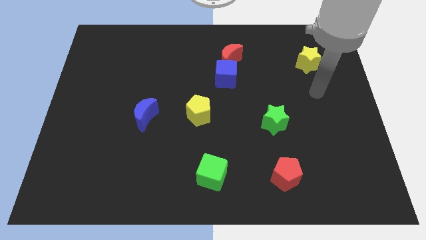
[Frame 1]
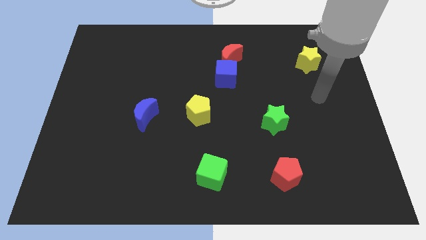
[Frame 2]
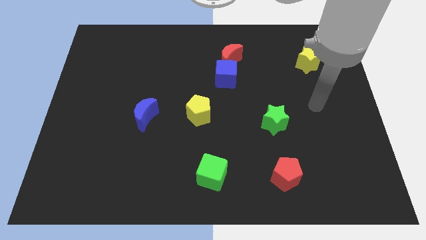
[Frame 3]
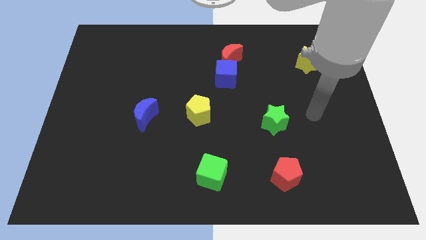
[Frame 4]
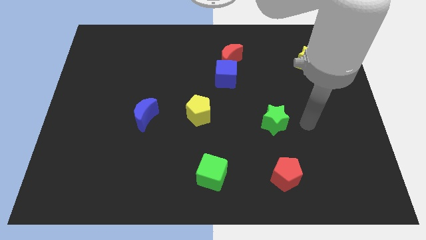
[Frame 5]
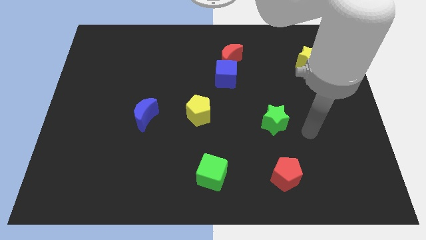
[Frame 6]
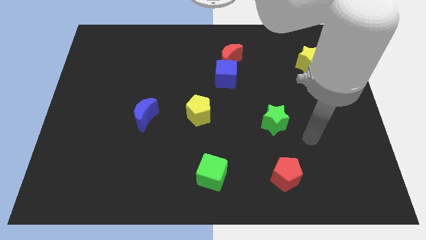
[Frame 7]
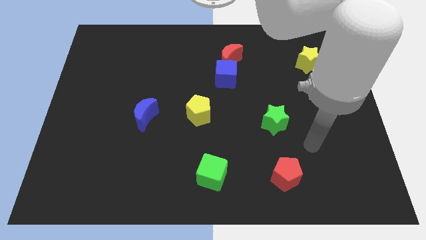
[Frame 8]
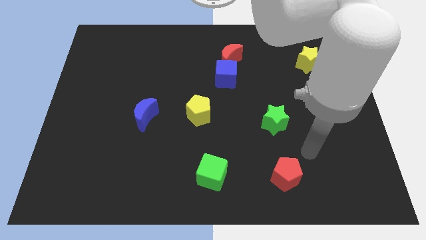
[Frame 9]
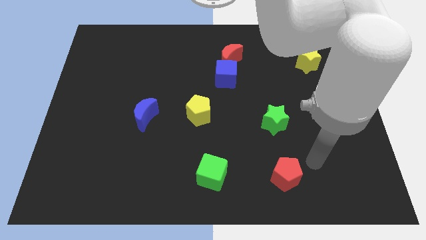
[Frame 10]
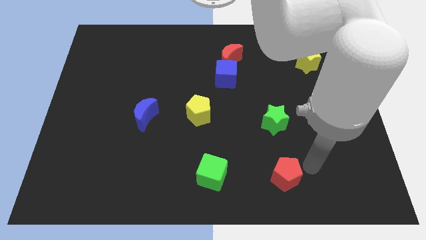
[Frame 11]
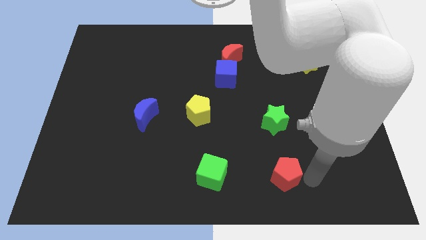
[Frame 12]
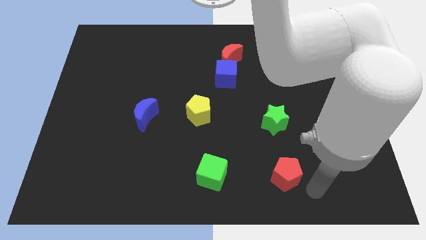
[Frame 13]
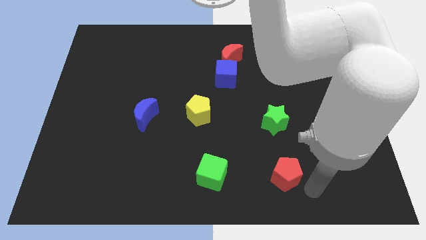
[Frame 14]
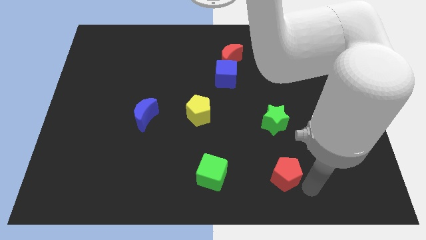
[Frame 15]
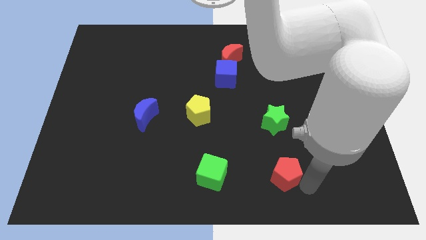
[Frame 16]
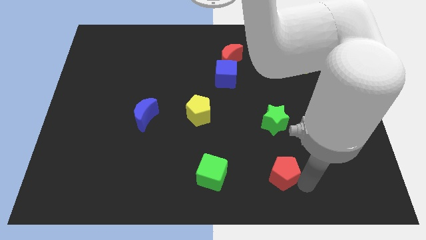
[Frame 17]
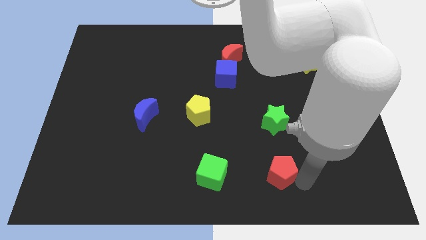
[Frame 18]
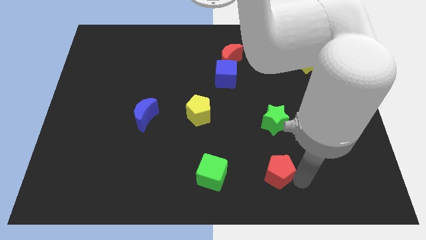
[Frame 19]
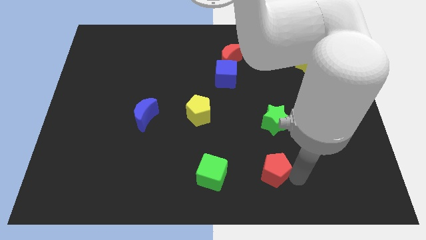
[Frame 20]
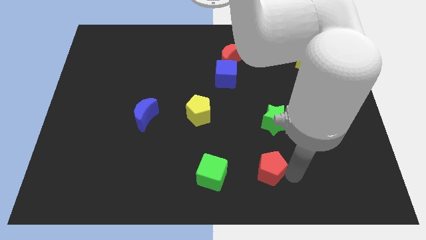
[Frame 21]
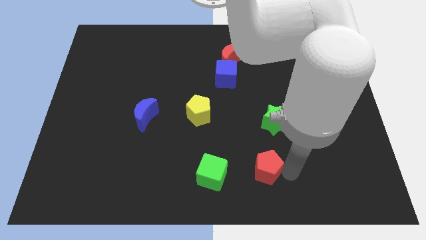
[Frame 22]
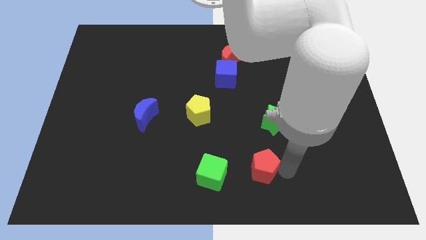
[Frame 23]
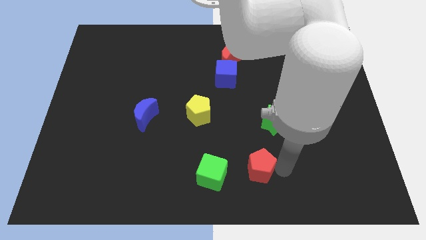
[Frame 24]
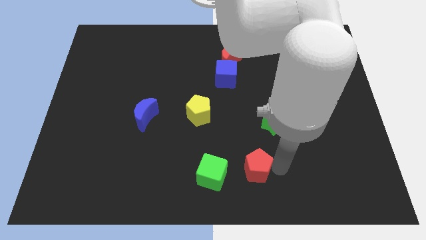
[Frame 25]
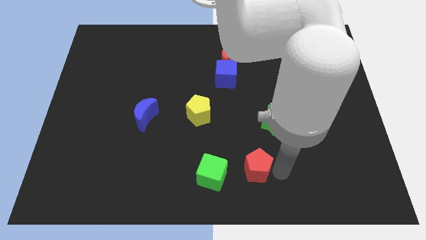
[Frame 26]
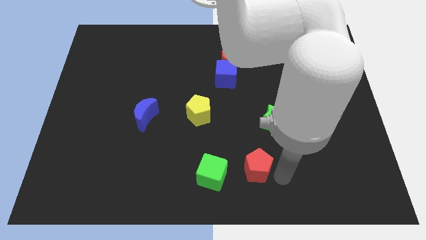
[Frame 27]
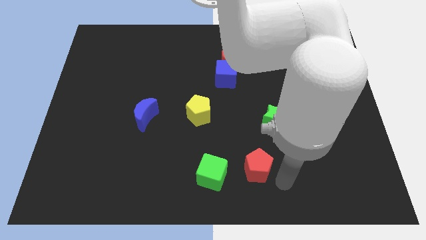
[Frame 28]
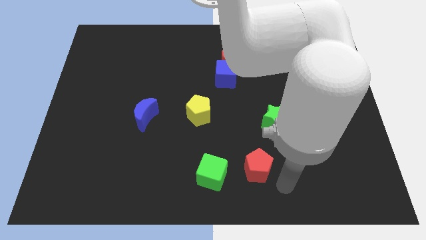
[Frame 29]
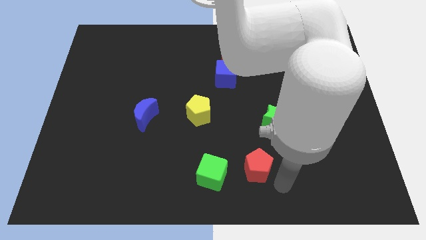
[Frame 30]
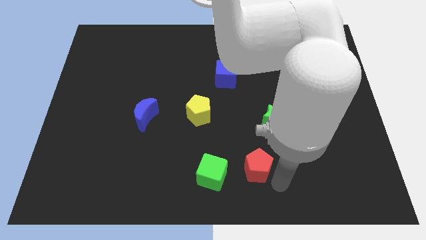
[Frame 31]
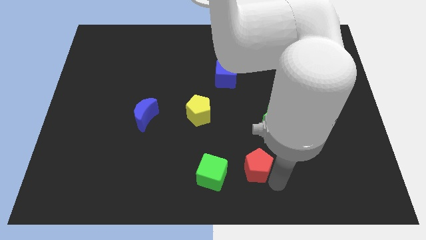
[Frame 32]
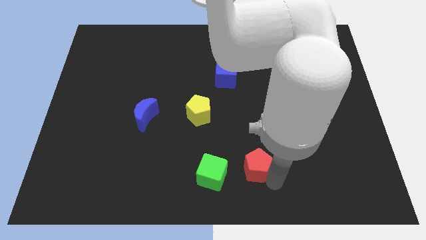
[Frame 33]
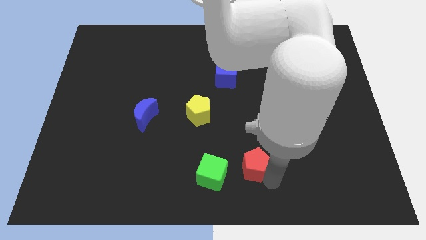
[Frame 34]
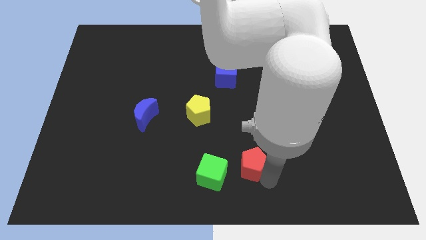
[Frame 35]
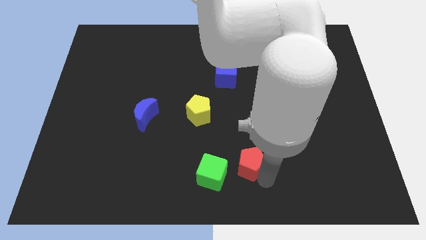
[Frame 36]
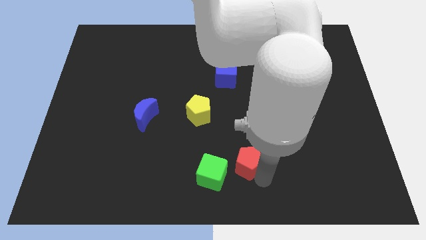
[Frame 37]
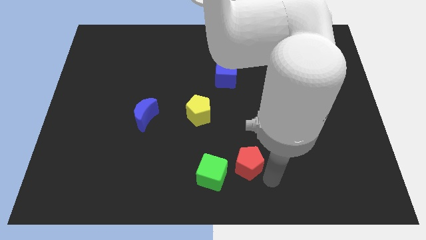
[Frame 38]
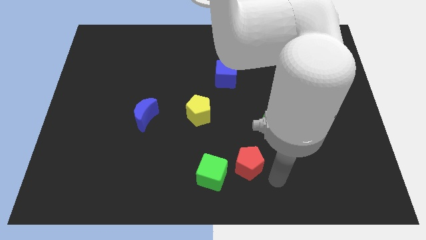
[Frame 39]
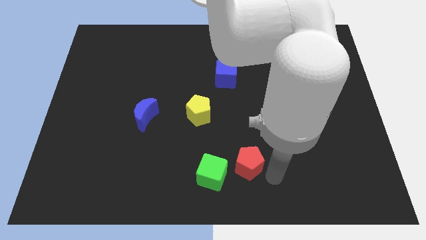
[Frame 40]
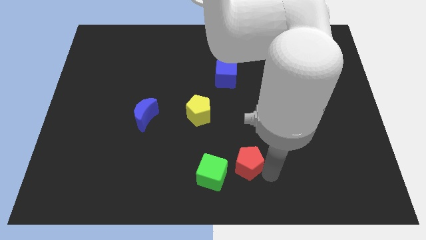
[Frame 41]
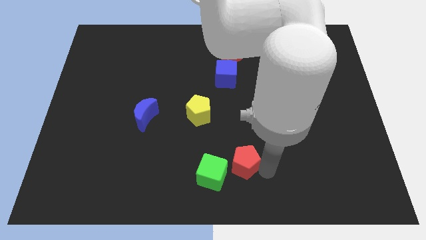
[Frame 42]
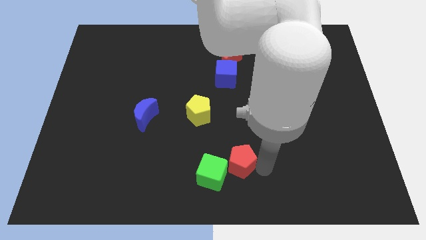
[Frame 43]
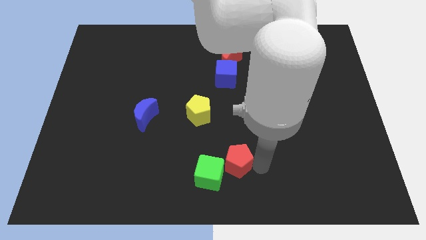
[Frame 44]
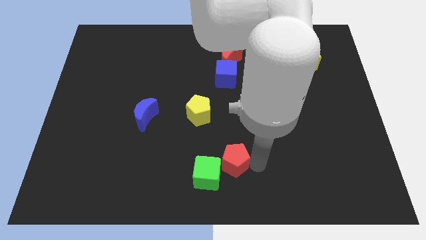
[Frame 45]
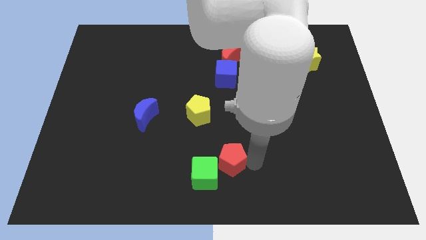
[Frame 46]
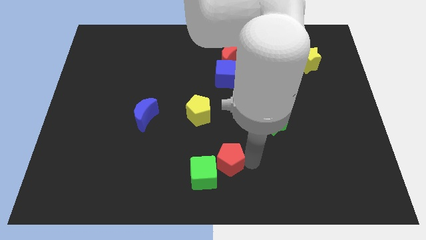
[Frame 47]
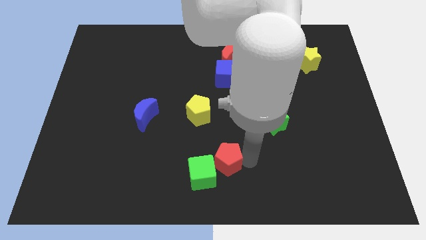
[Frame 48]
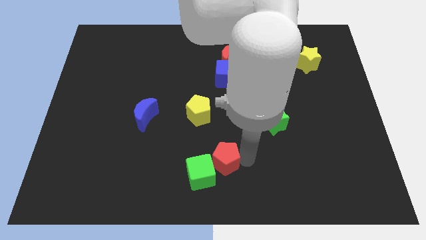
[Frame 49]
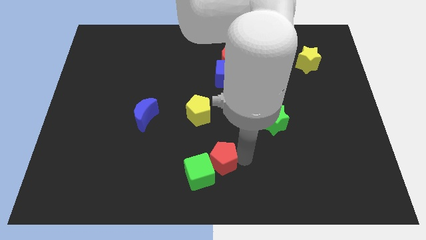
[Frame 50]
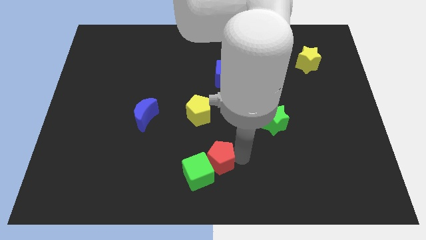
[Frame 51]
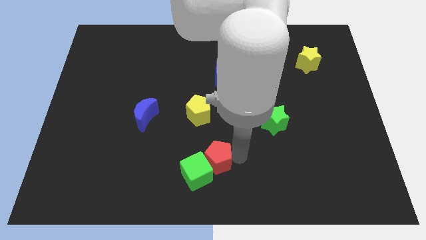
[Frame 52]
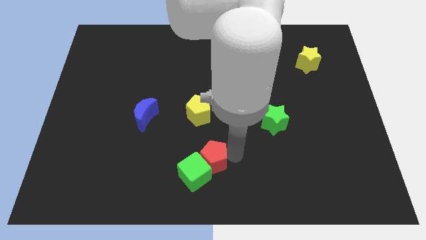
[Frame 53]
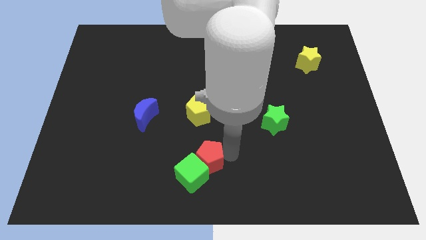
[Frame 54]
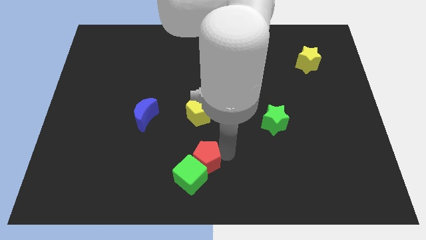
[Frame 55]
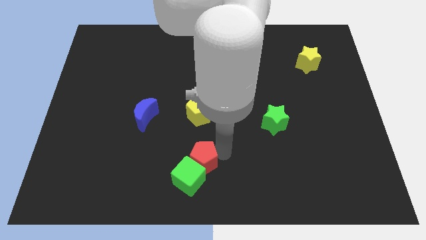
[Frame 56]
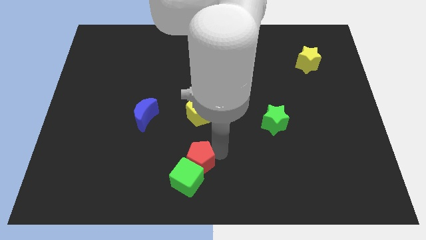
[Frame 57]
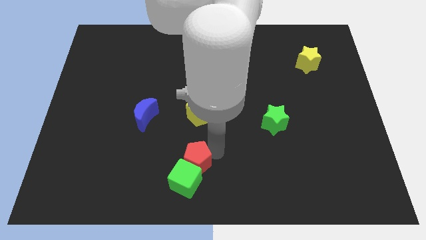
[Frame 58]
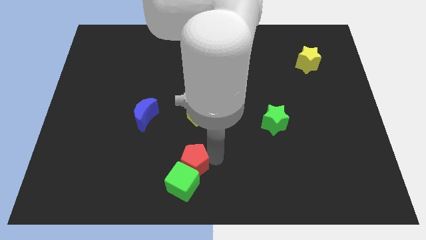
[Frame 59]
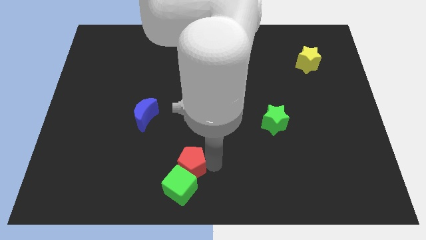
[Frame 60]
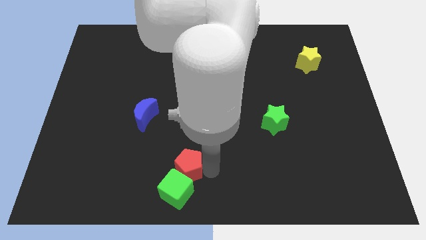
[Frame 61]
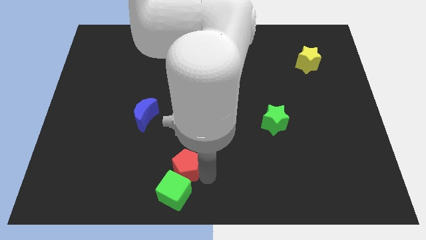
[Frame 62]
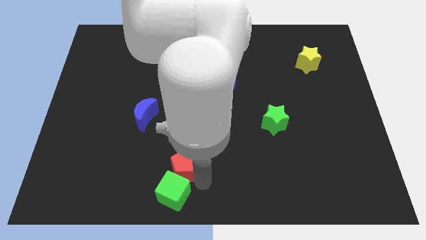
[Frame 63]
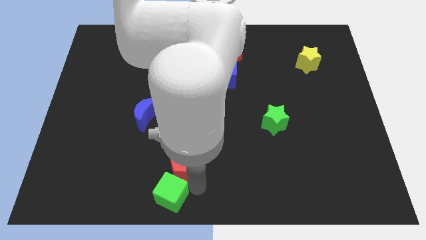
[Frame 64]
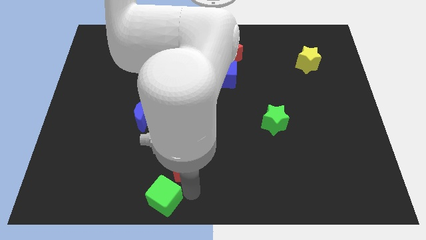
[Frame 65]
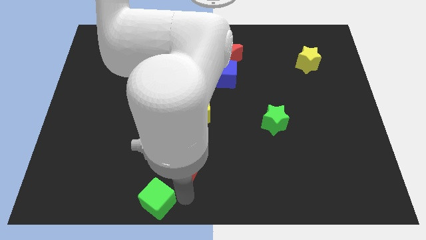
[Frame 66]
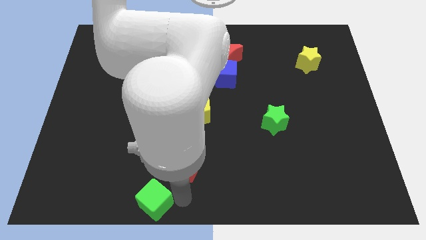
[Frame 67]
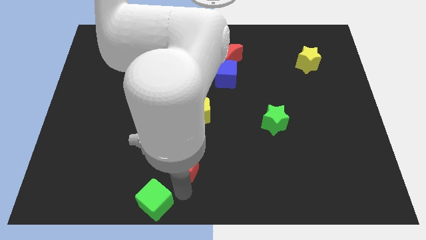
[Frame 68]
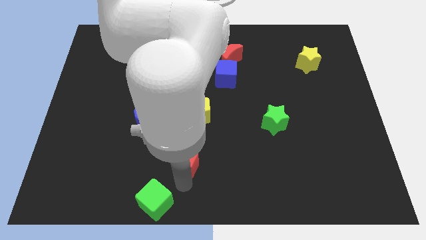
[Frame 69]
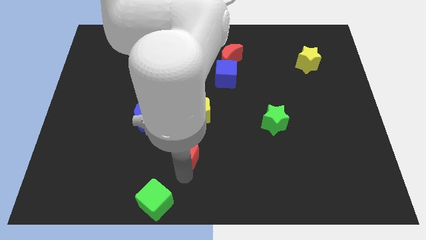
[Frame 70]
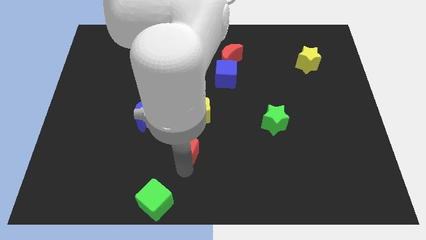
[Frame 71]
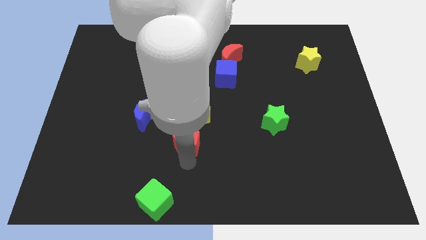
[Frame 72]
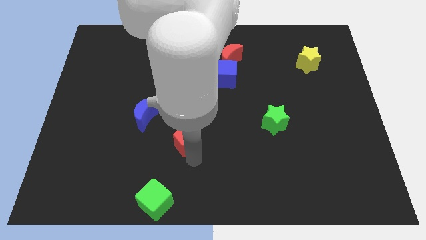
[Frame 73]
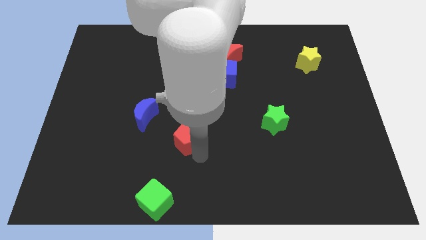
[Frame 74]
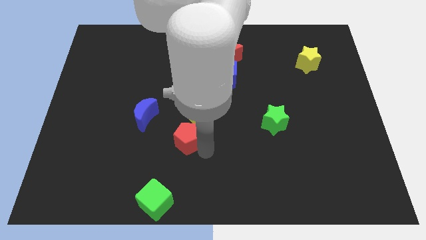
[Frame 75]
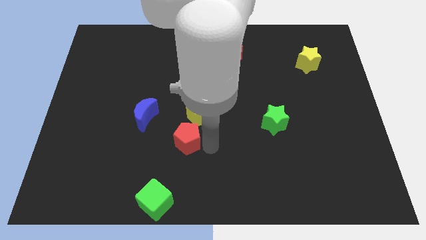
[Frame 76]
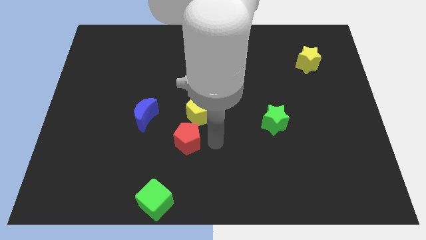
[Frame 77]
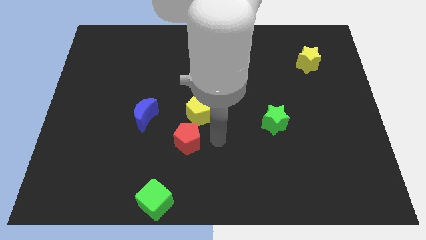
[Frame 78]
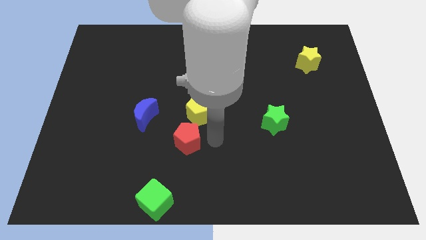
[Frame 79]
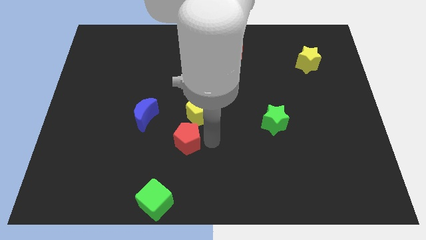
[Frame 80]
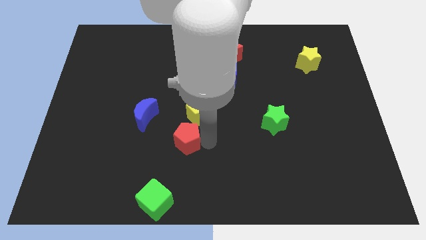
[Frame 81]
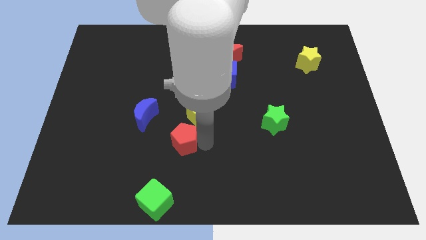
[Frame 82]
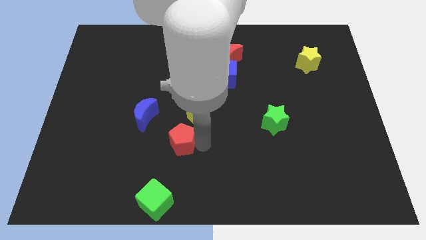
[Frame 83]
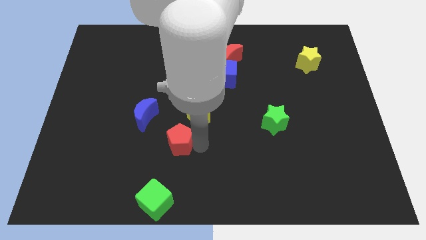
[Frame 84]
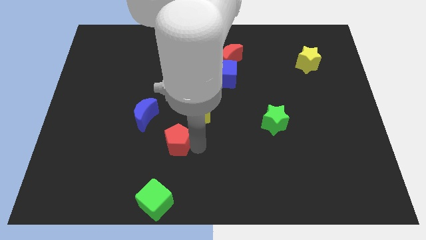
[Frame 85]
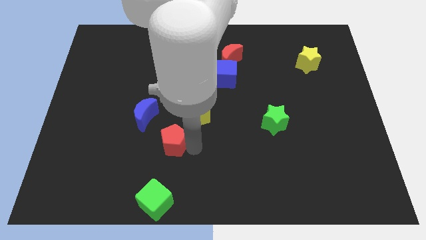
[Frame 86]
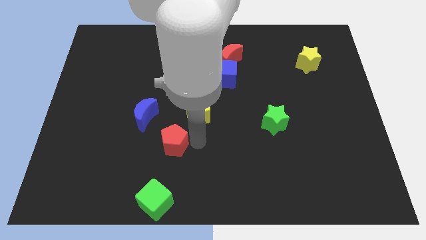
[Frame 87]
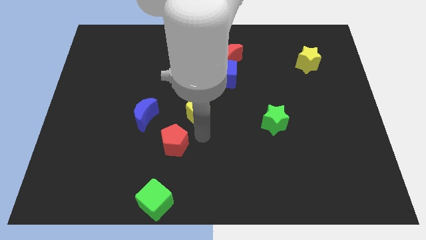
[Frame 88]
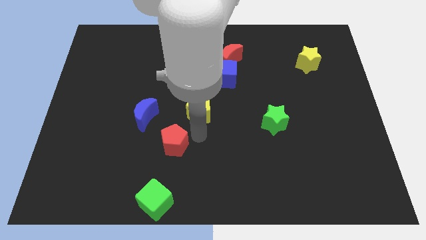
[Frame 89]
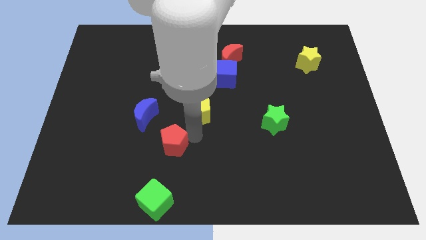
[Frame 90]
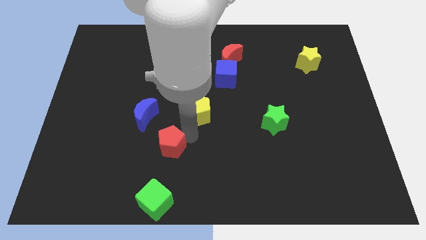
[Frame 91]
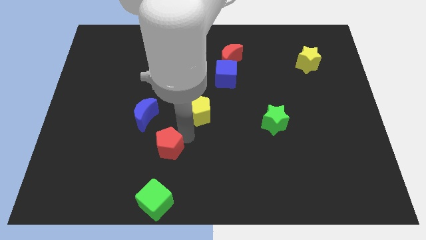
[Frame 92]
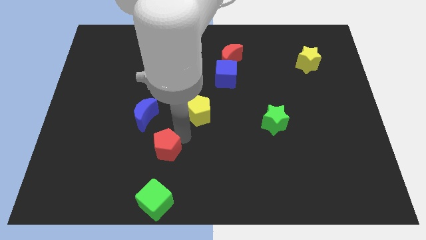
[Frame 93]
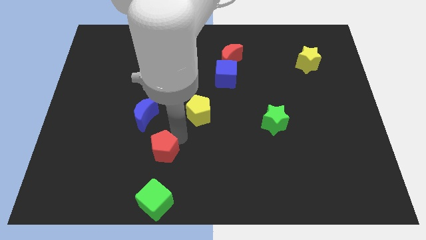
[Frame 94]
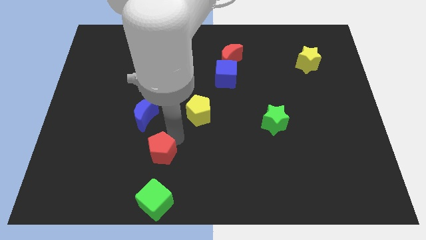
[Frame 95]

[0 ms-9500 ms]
push the red pentagon to the bottom side of the blue moon
